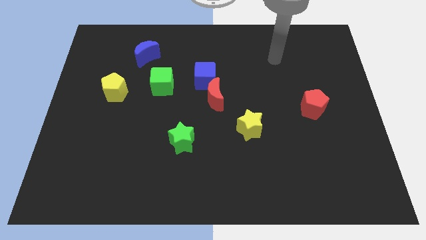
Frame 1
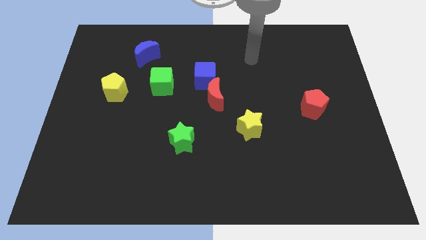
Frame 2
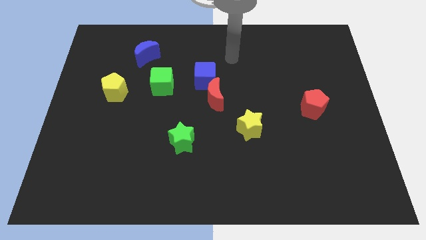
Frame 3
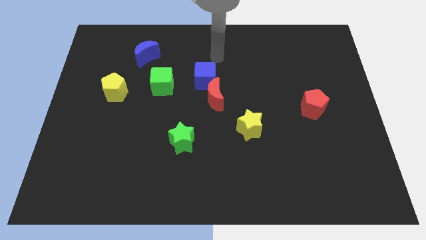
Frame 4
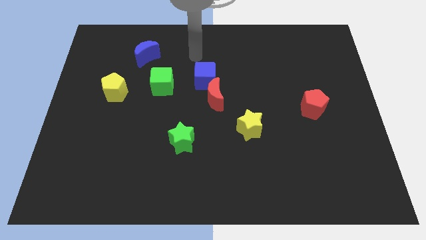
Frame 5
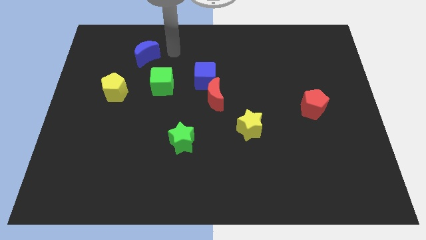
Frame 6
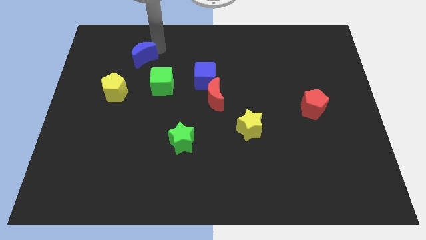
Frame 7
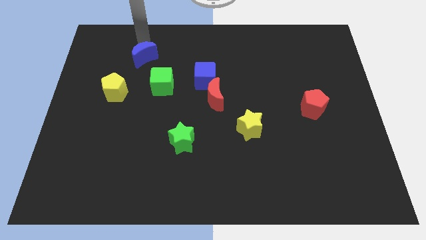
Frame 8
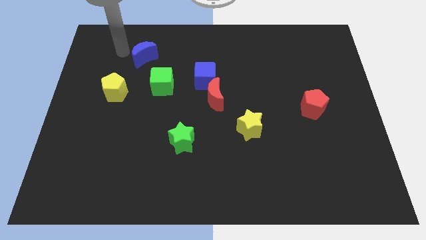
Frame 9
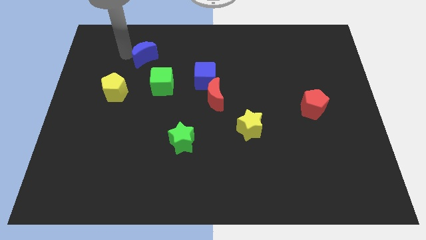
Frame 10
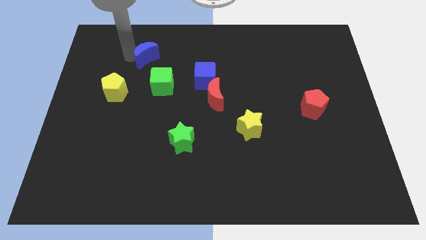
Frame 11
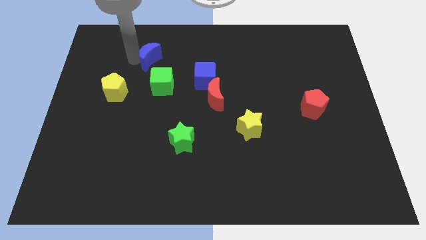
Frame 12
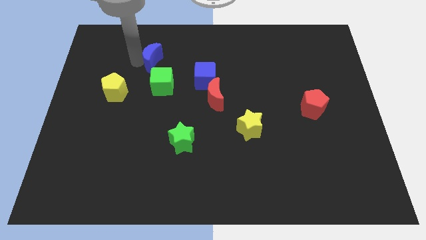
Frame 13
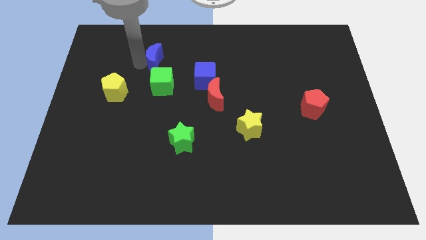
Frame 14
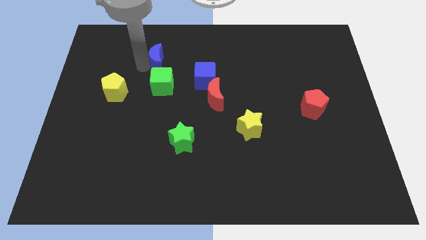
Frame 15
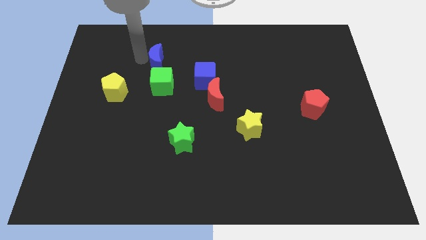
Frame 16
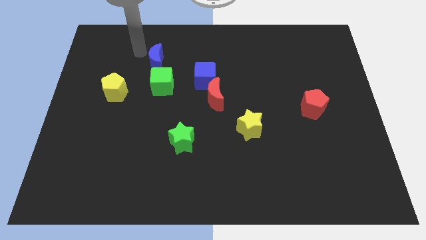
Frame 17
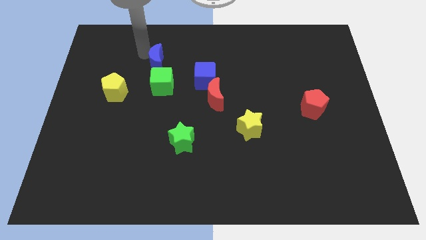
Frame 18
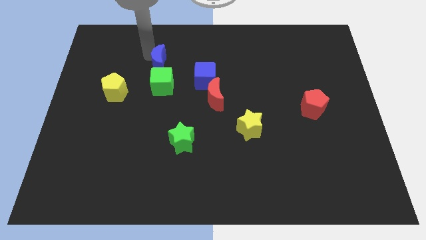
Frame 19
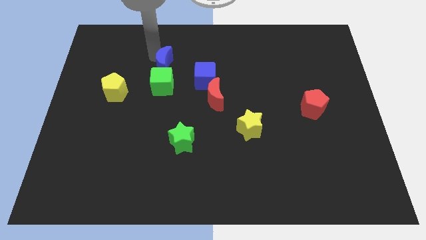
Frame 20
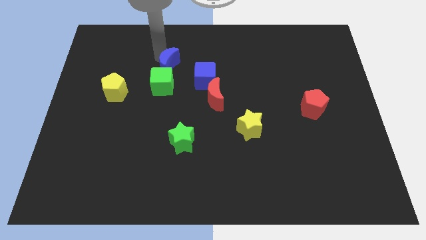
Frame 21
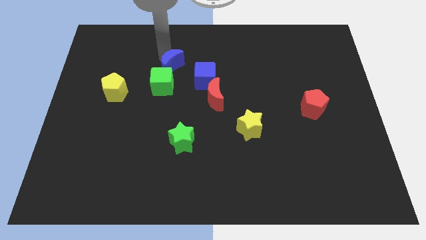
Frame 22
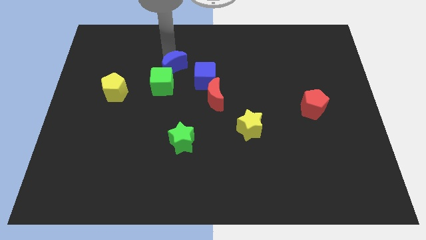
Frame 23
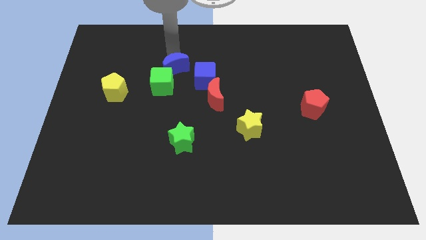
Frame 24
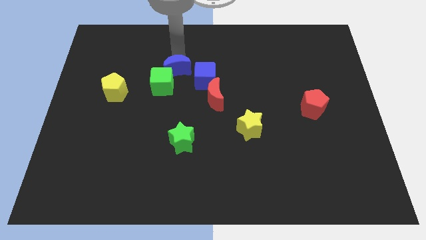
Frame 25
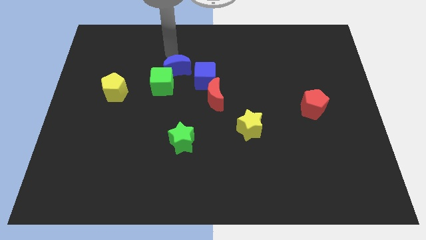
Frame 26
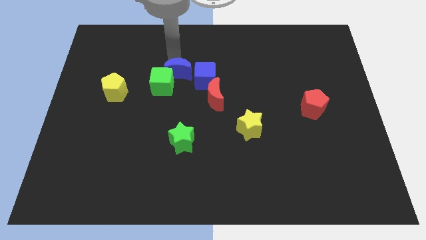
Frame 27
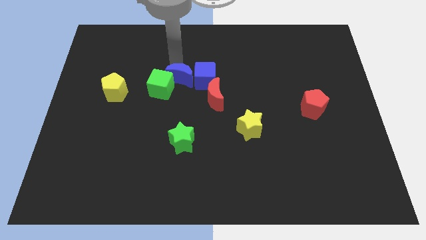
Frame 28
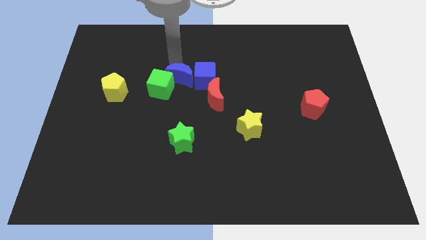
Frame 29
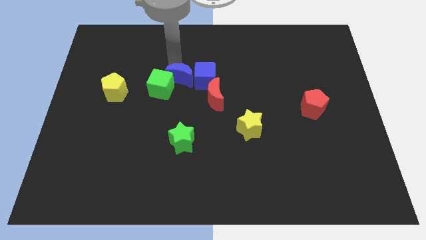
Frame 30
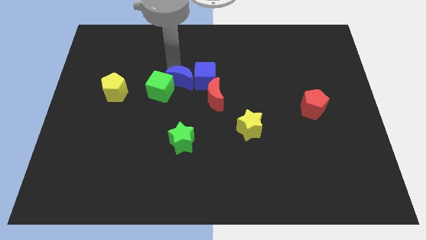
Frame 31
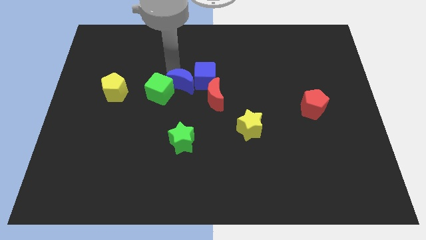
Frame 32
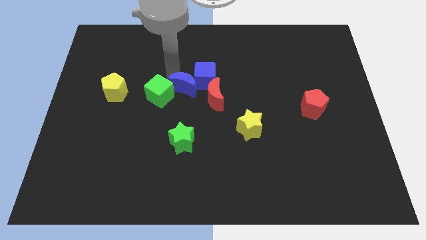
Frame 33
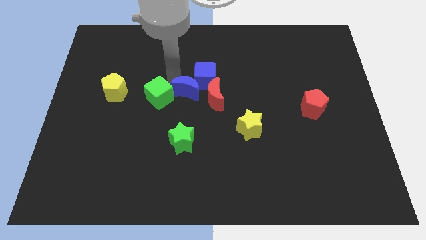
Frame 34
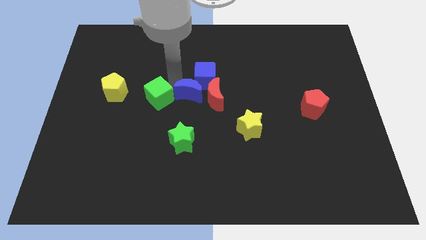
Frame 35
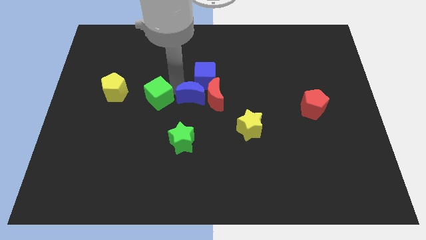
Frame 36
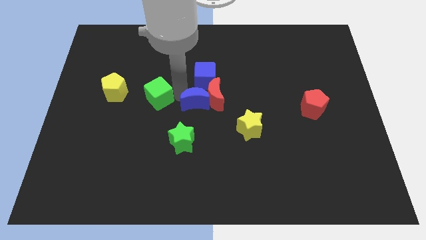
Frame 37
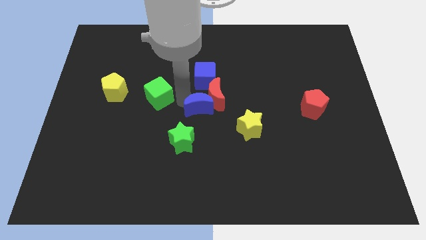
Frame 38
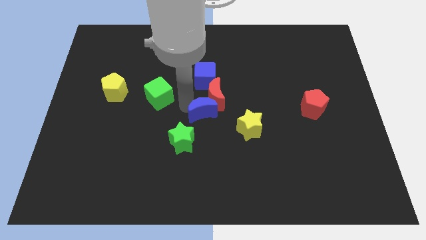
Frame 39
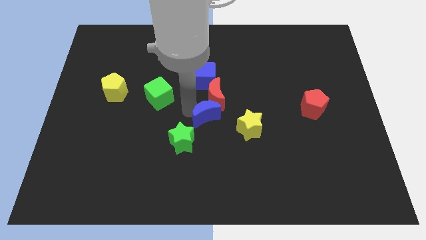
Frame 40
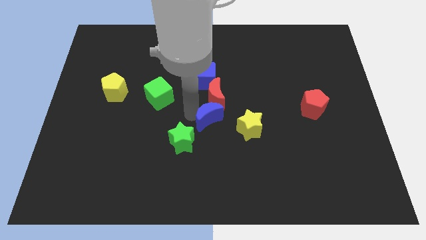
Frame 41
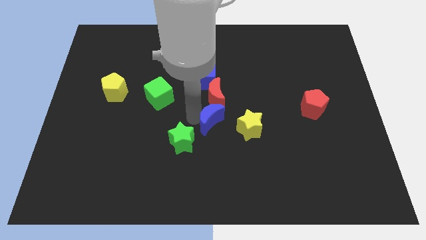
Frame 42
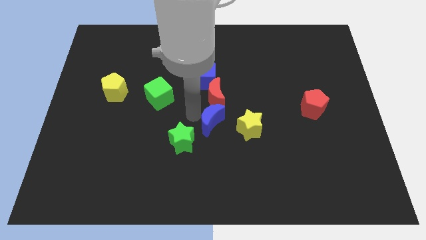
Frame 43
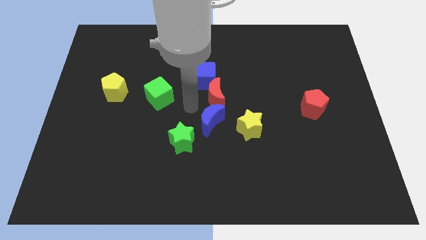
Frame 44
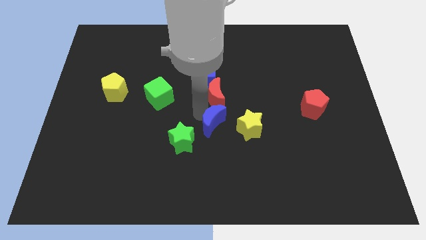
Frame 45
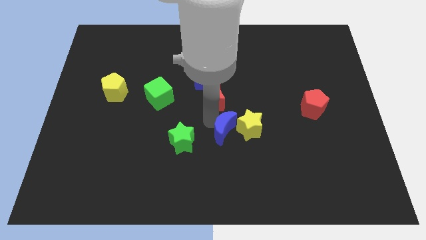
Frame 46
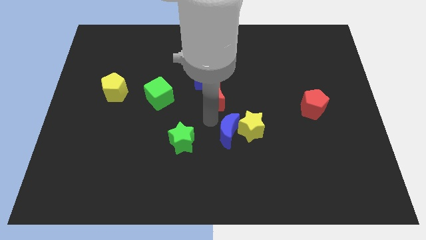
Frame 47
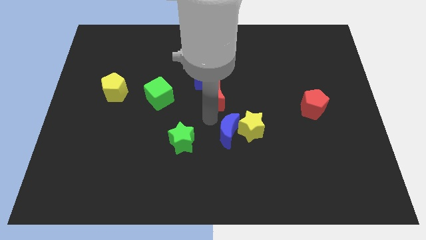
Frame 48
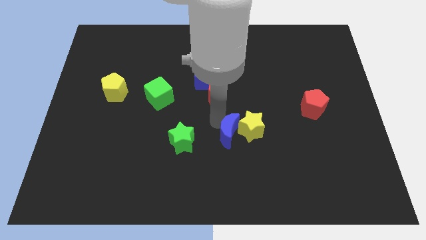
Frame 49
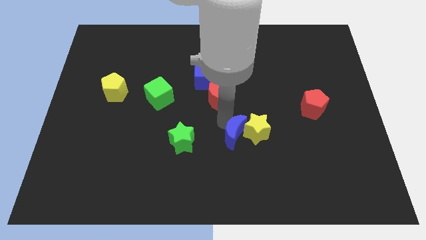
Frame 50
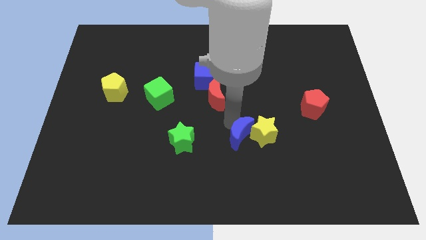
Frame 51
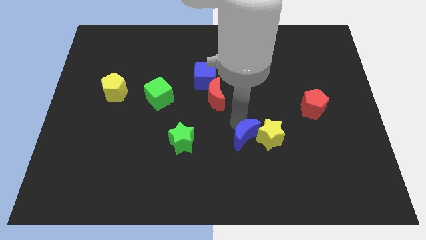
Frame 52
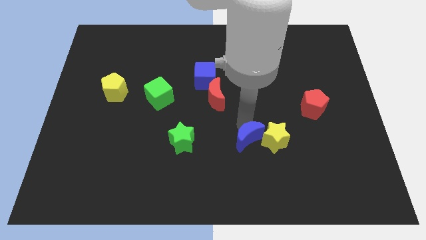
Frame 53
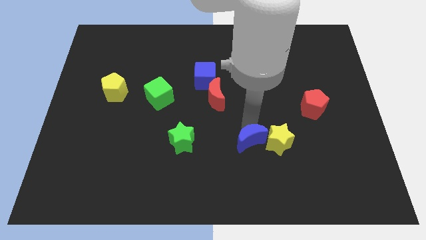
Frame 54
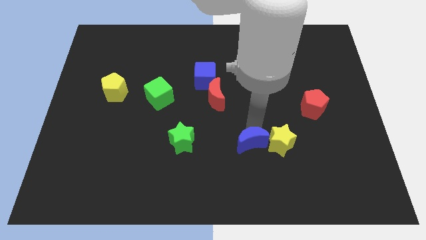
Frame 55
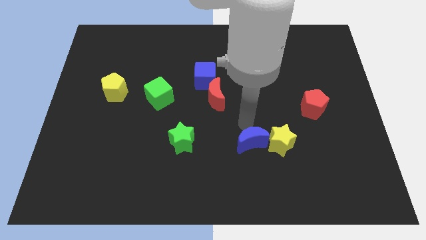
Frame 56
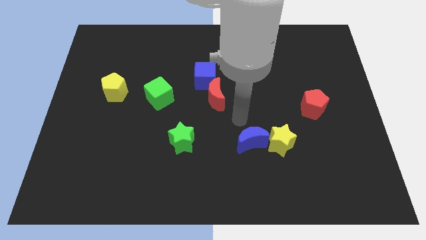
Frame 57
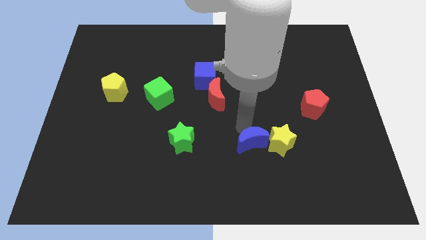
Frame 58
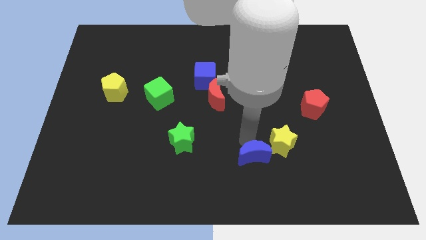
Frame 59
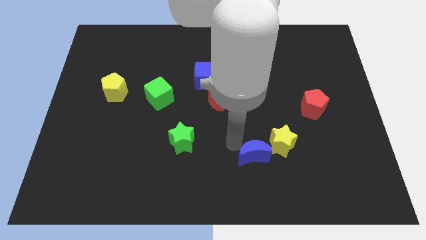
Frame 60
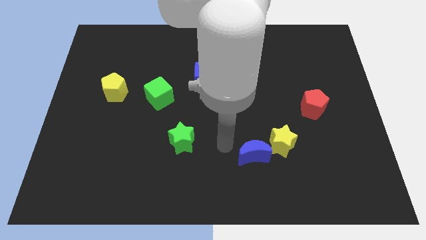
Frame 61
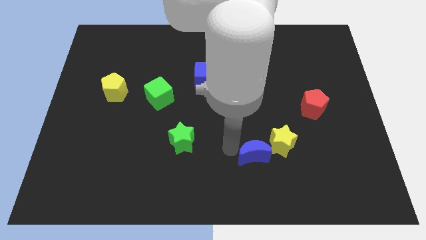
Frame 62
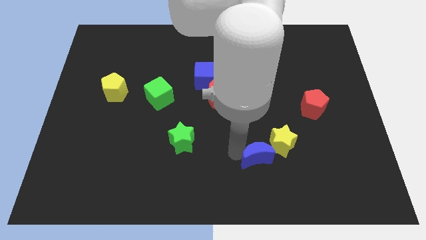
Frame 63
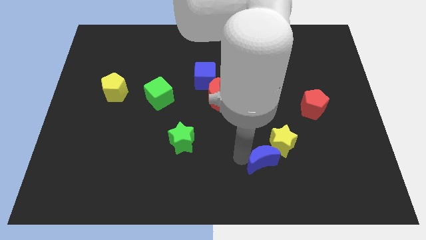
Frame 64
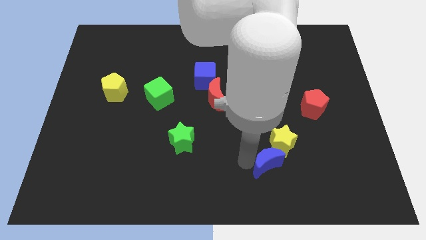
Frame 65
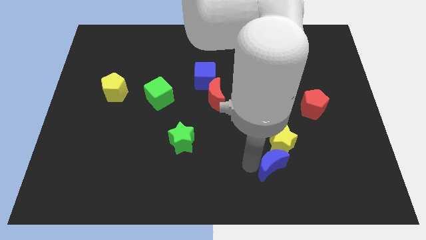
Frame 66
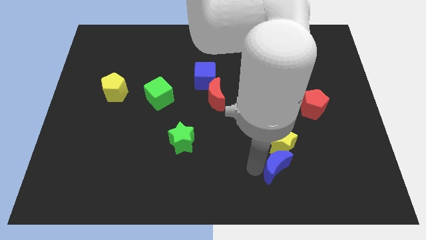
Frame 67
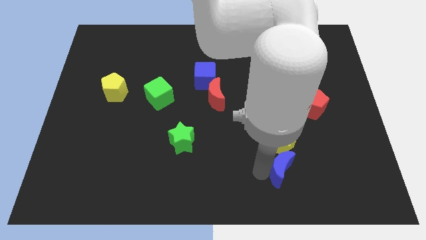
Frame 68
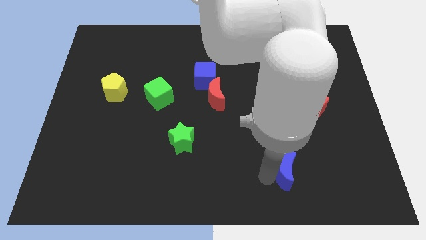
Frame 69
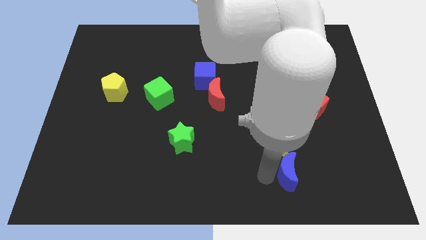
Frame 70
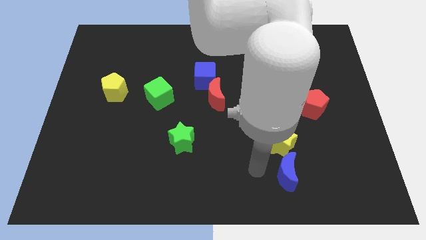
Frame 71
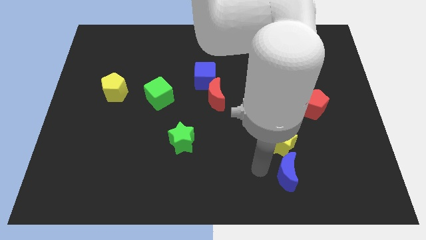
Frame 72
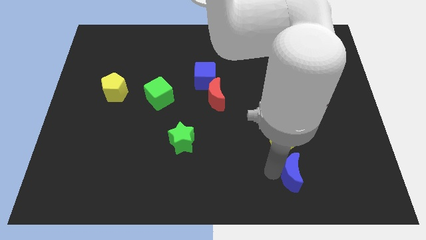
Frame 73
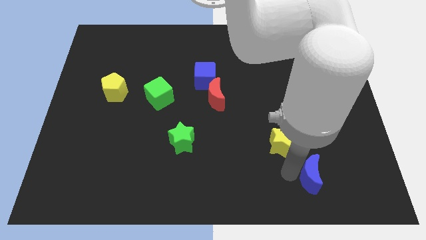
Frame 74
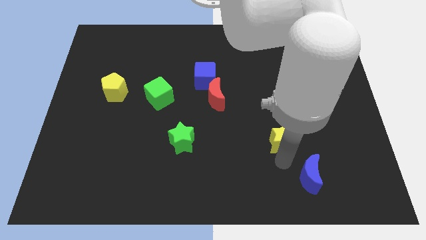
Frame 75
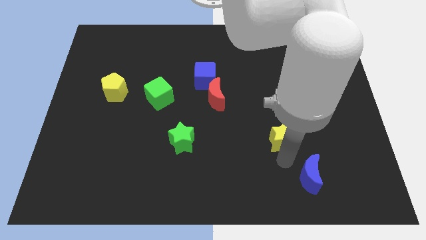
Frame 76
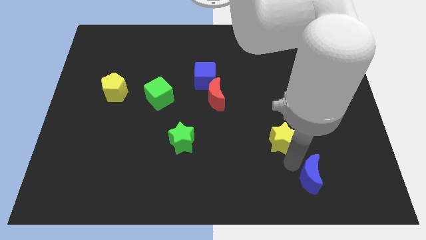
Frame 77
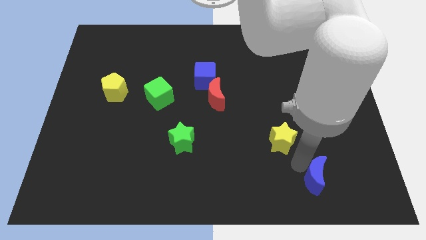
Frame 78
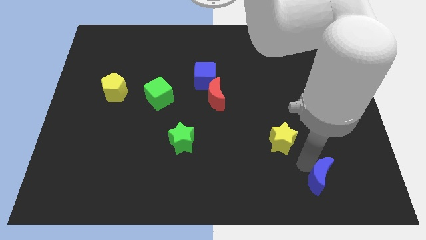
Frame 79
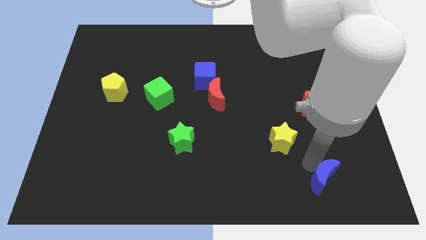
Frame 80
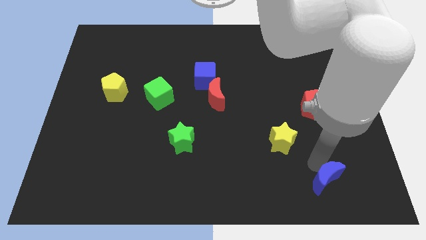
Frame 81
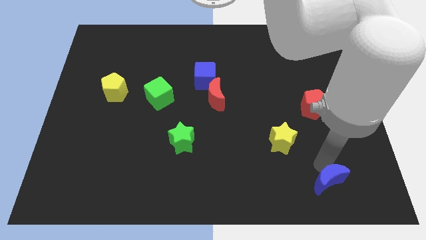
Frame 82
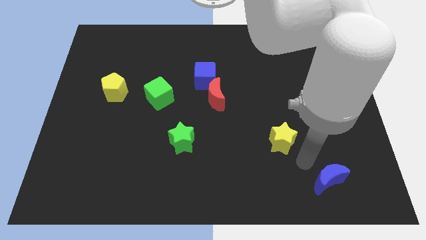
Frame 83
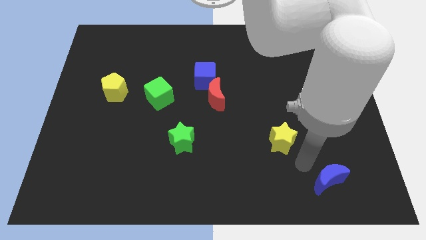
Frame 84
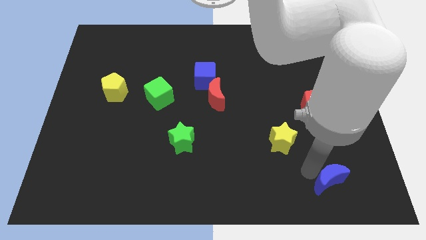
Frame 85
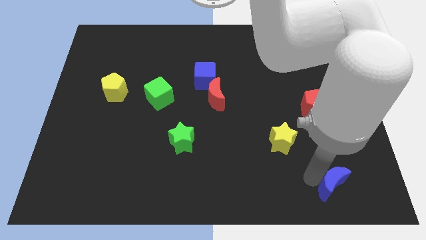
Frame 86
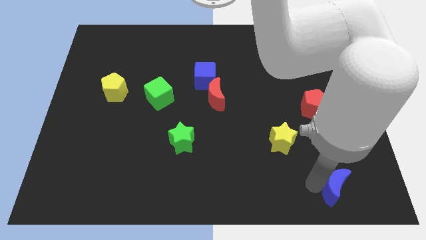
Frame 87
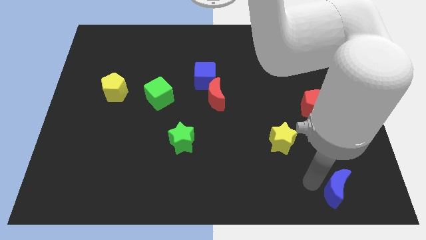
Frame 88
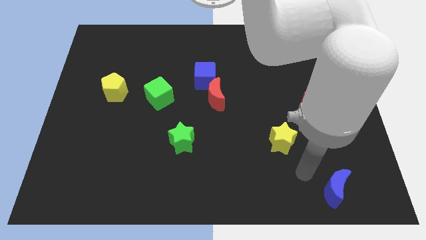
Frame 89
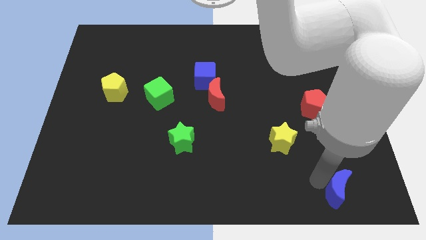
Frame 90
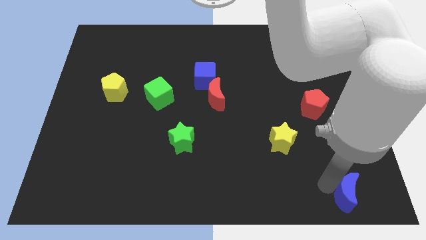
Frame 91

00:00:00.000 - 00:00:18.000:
move the blue moon to the bottom right corner
